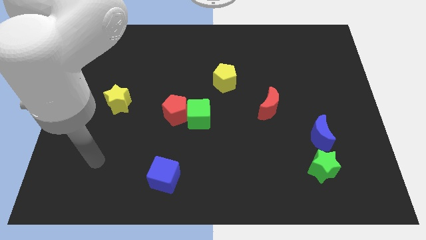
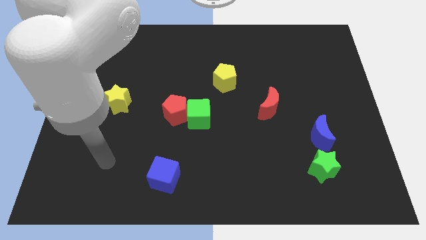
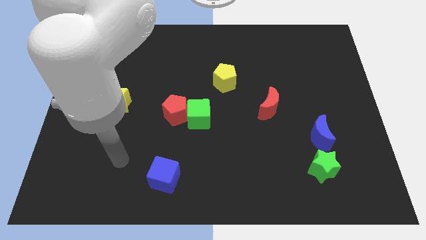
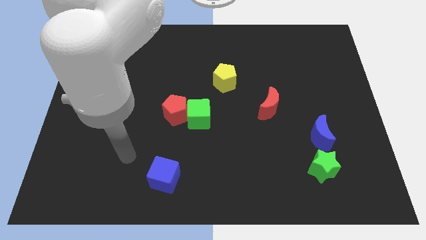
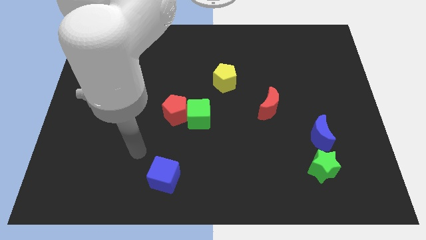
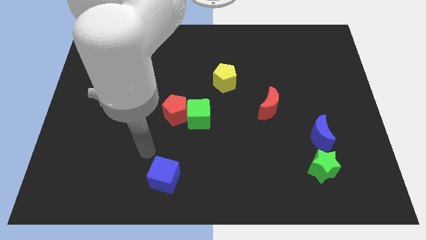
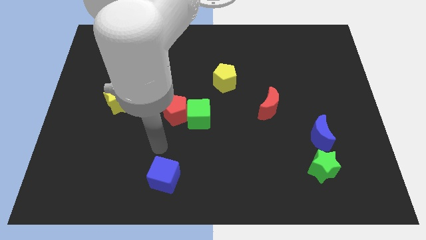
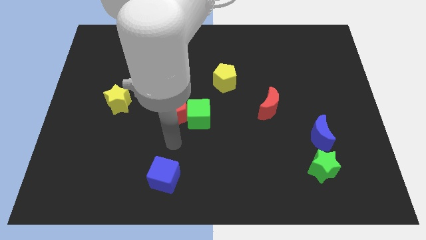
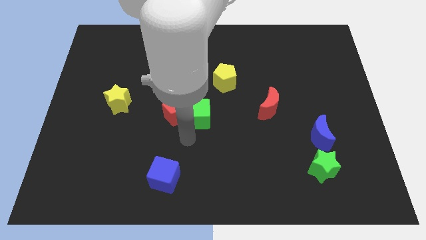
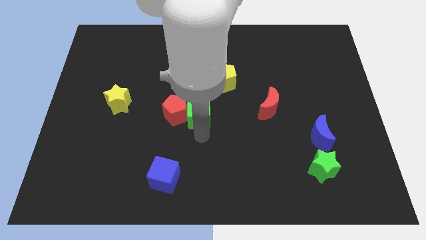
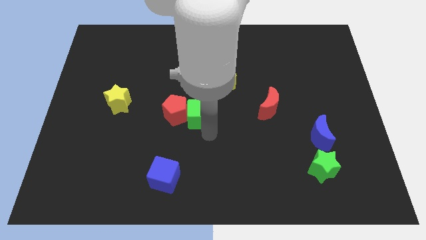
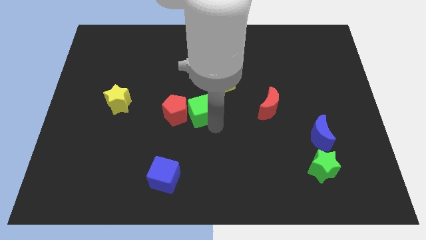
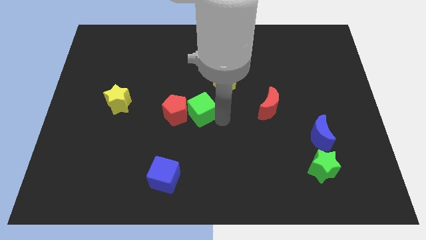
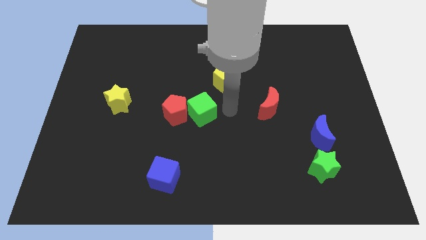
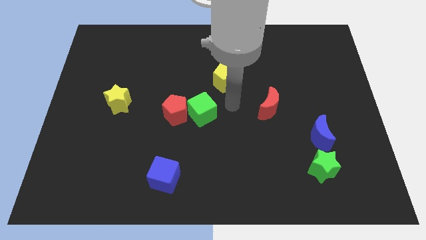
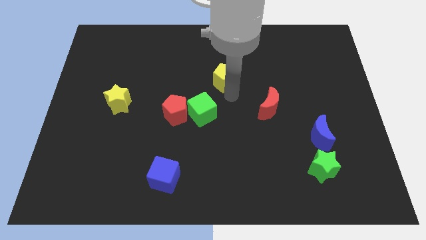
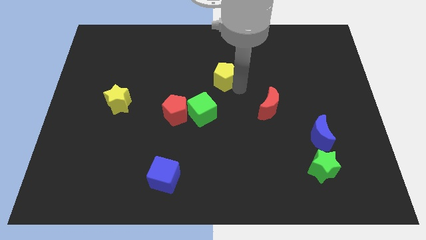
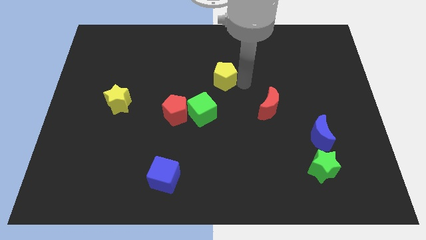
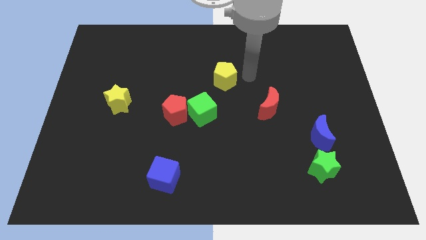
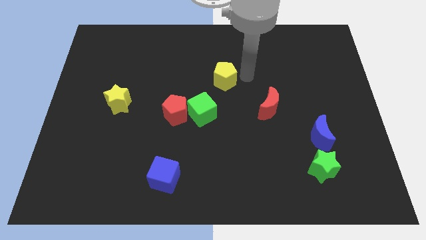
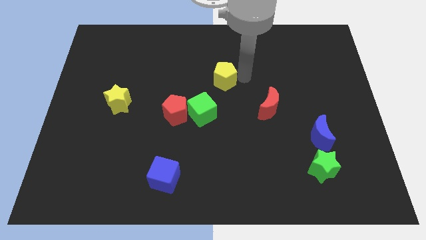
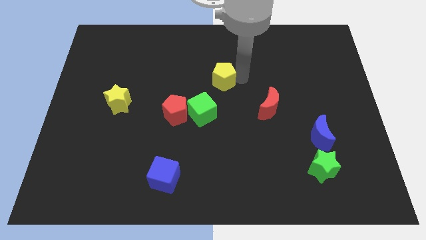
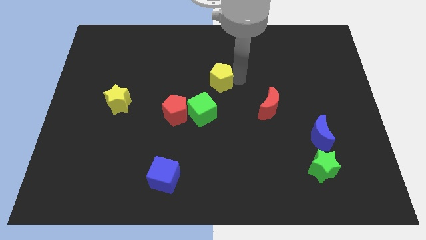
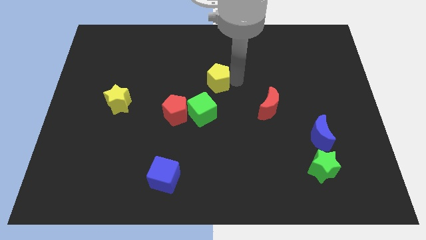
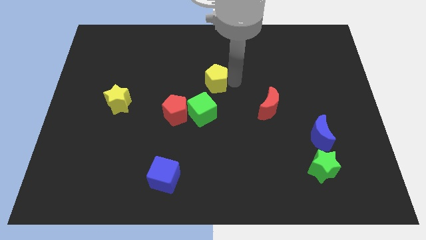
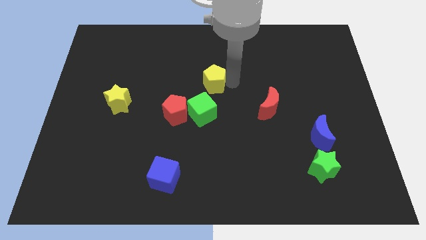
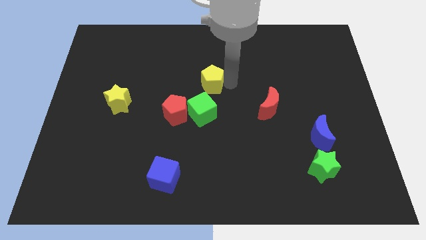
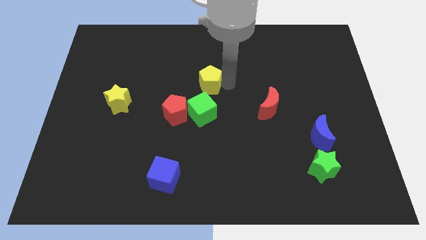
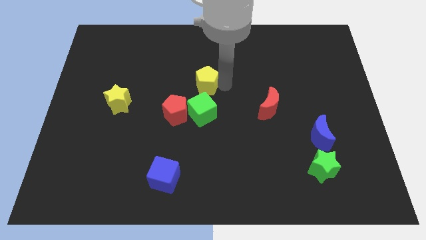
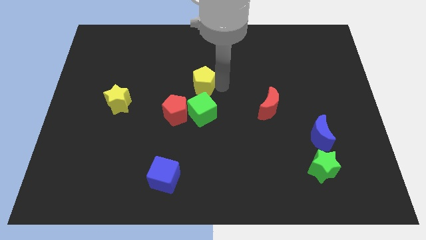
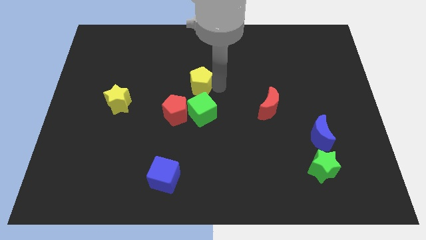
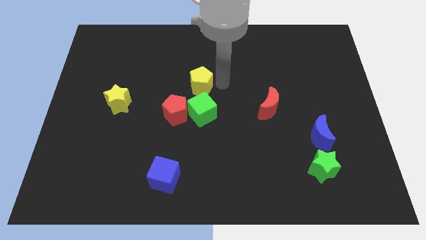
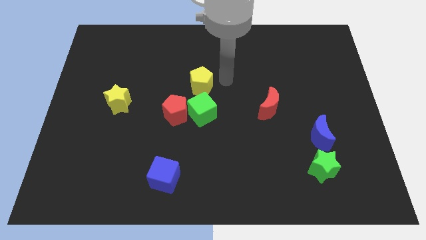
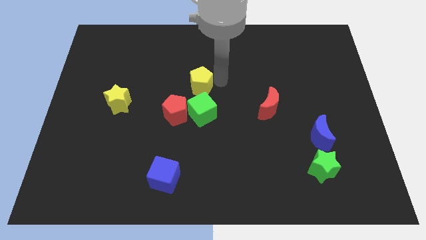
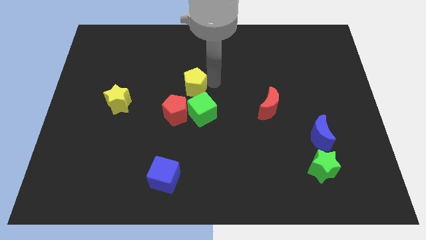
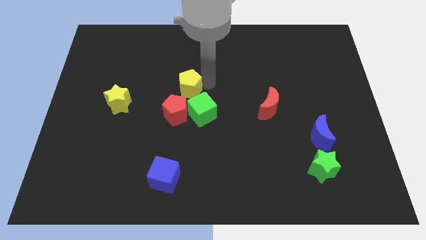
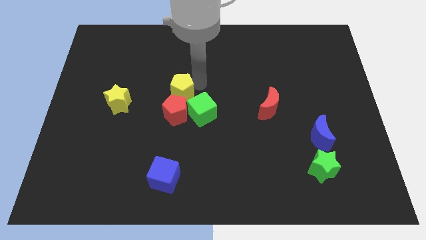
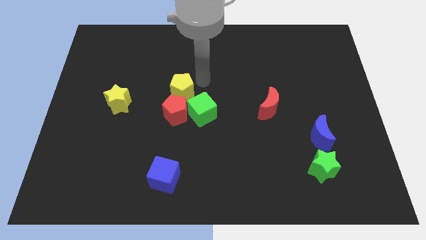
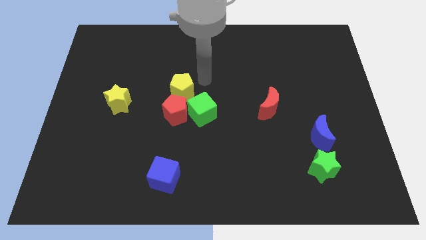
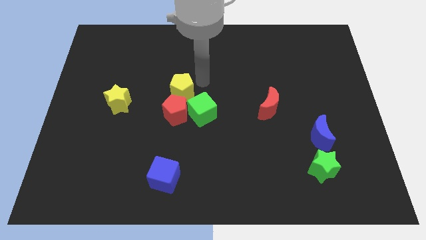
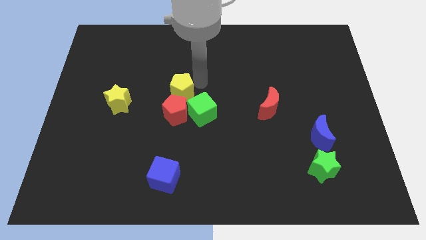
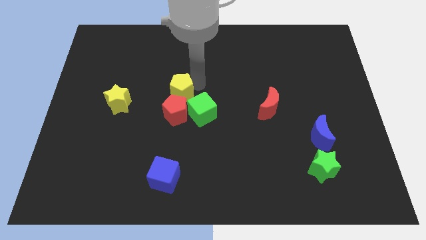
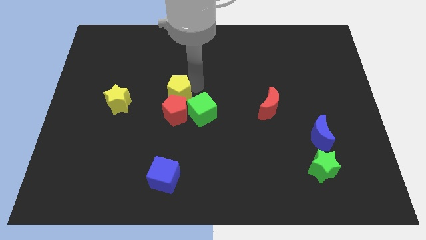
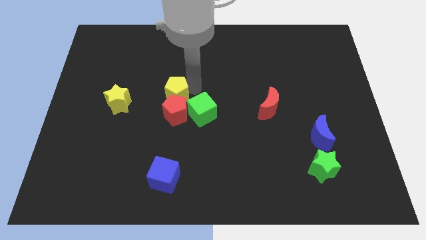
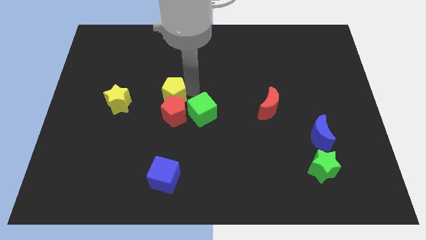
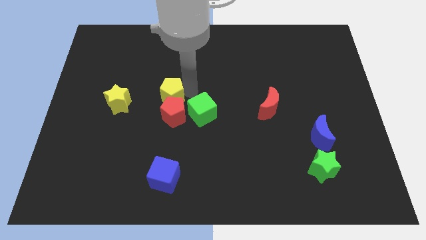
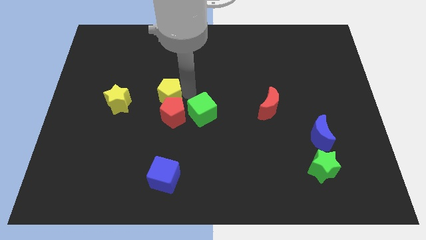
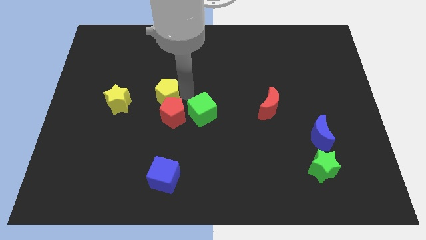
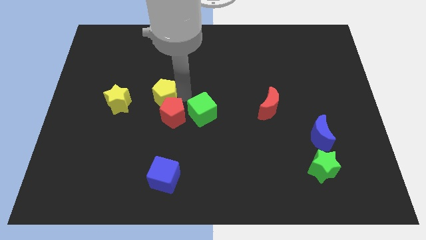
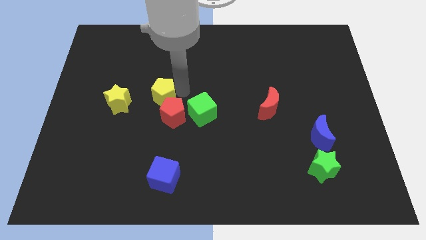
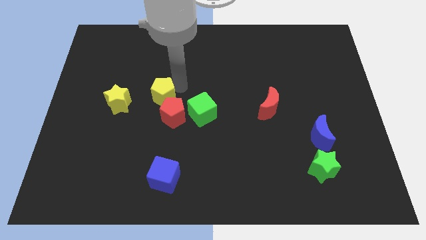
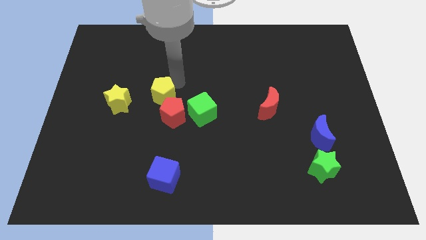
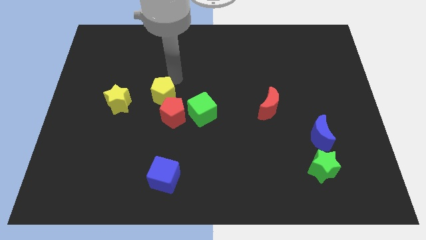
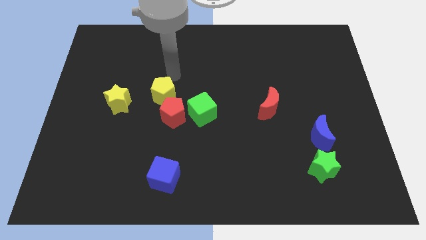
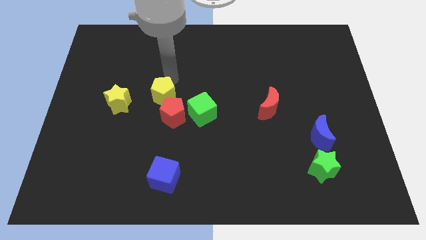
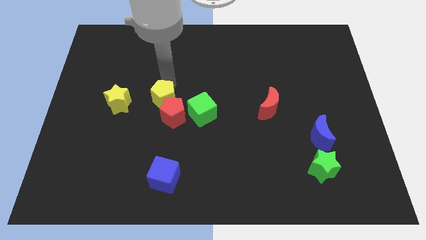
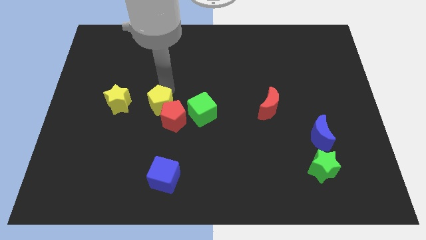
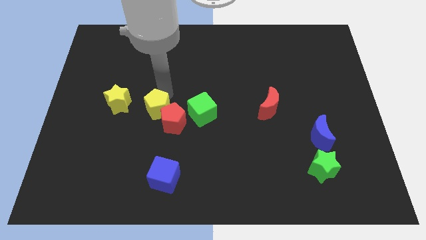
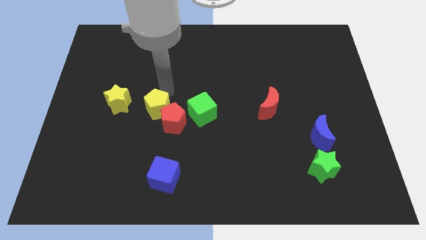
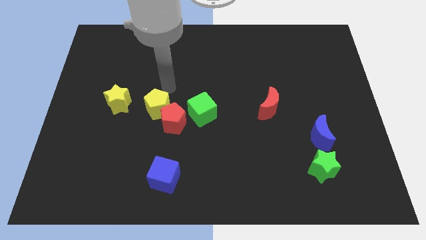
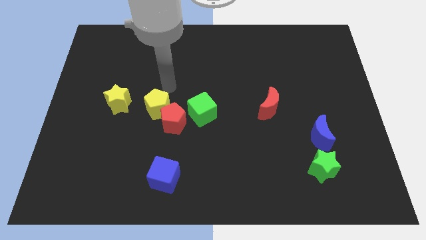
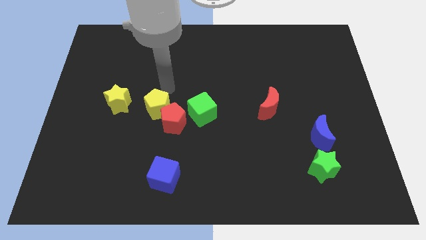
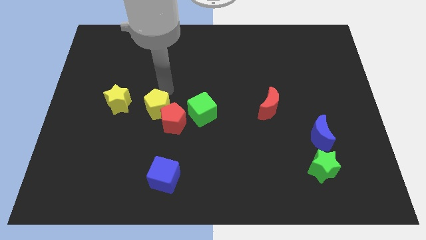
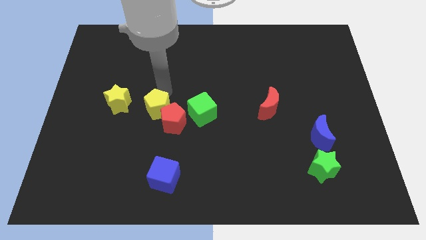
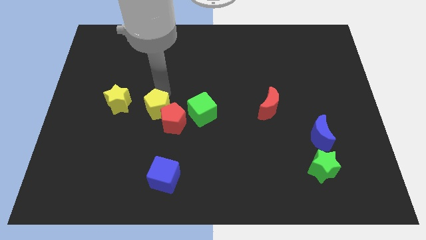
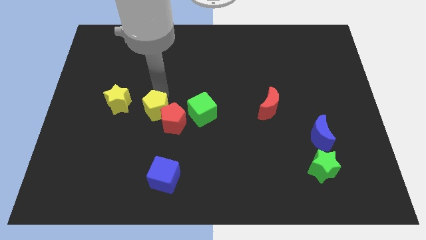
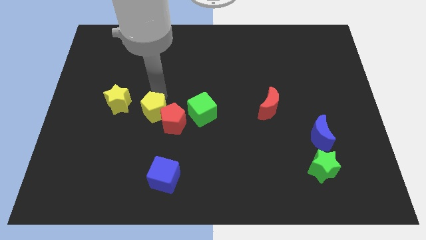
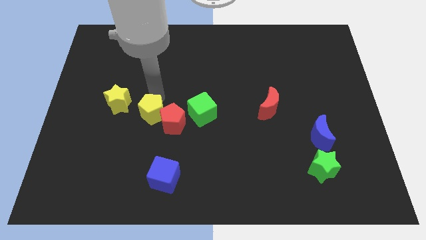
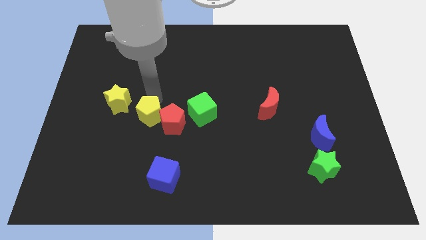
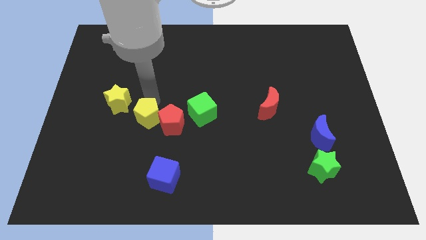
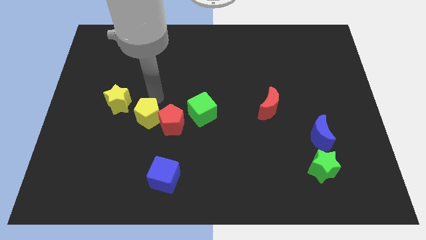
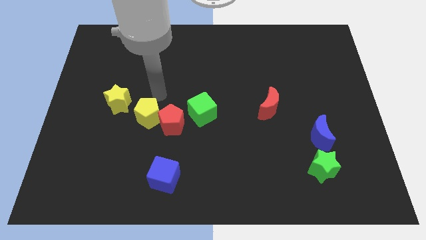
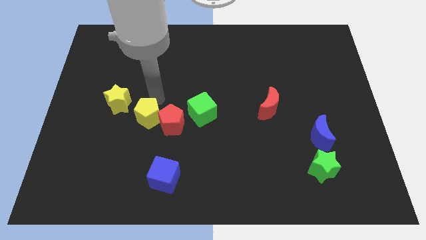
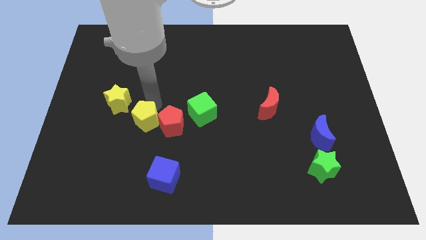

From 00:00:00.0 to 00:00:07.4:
slide the yellow pentagon downwards and to the left

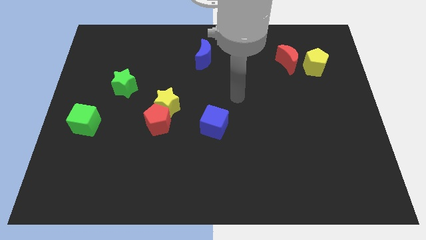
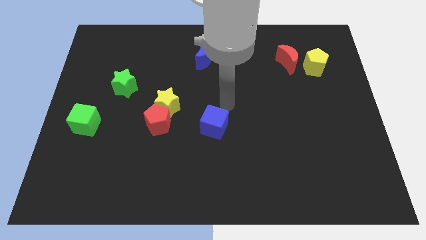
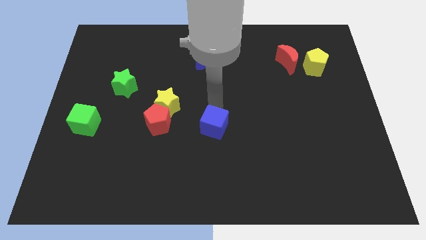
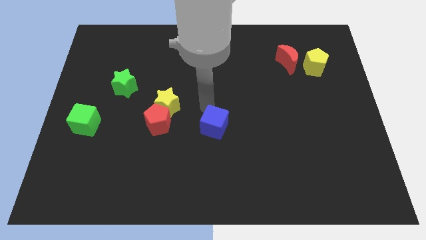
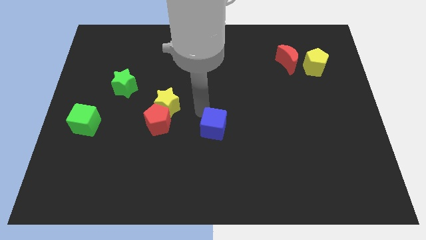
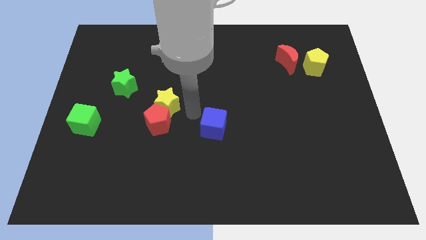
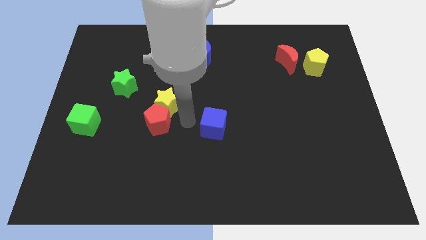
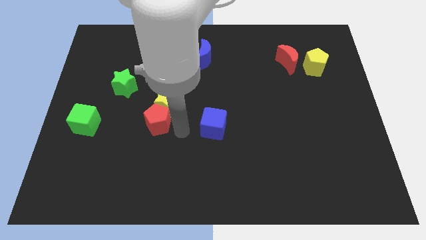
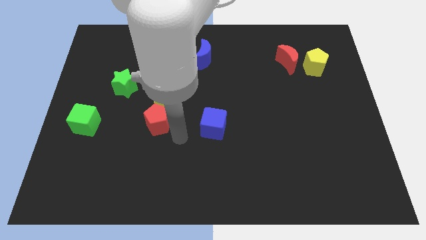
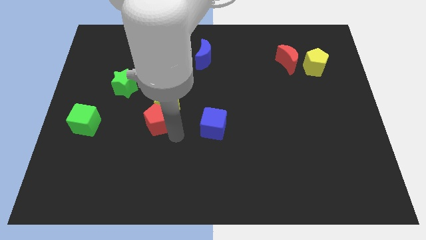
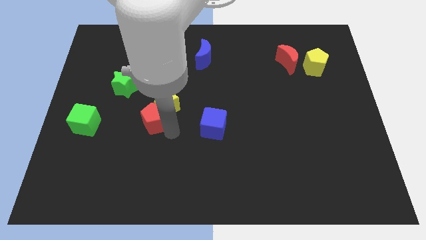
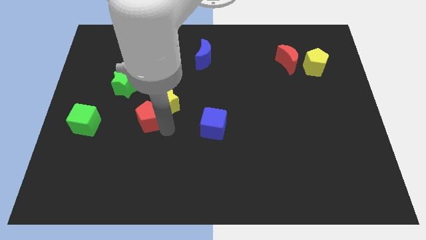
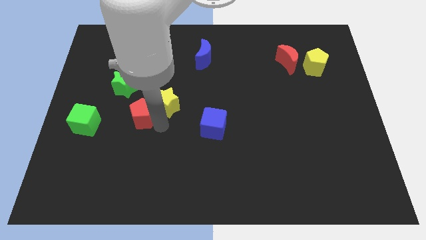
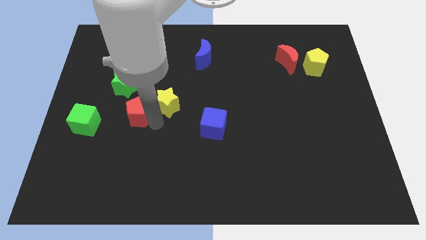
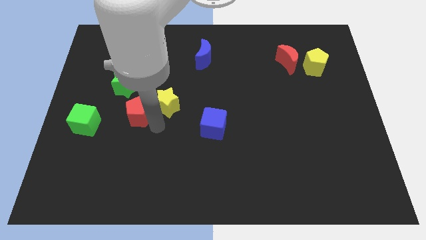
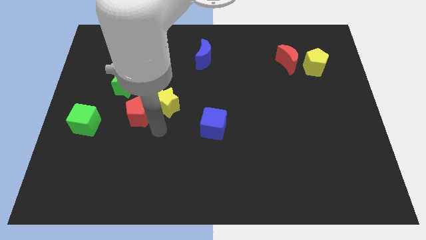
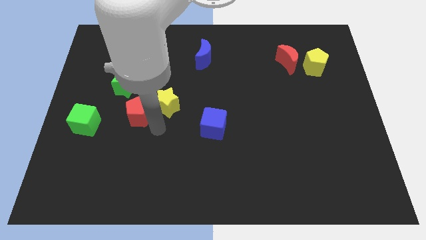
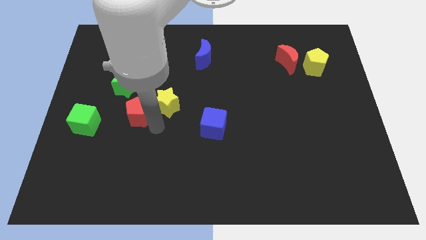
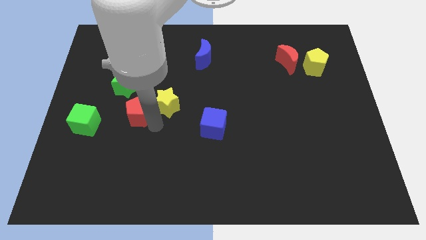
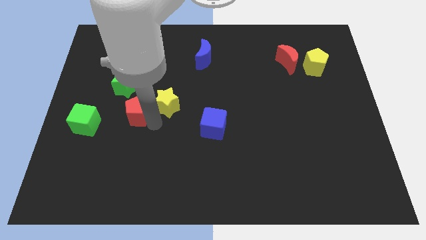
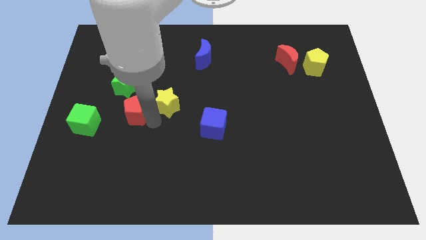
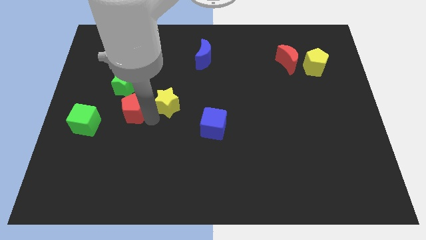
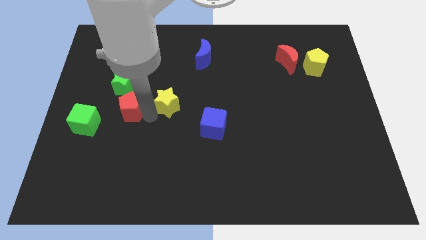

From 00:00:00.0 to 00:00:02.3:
slide the red pentagon up and then to the left a little bit
